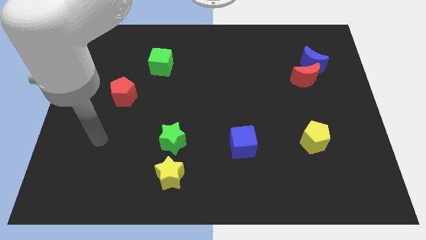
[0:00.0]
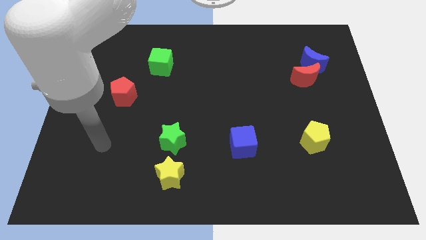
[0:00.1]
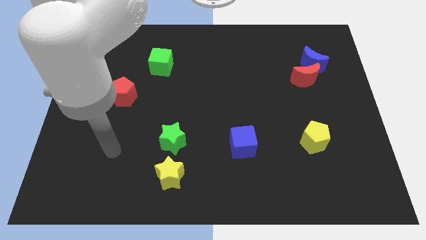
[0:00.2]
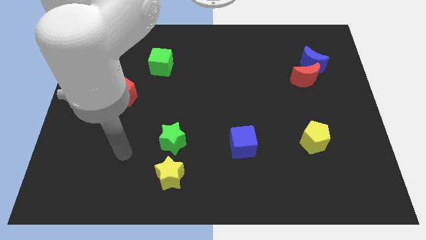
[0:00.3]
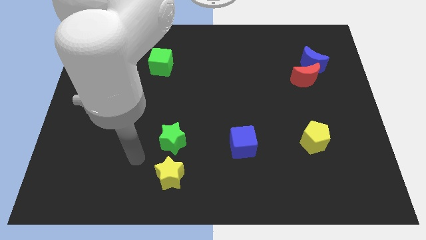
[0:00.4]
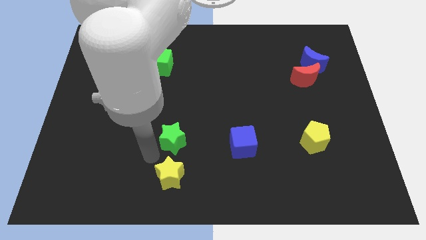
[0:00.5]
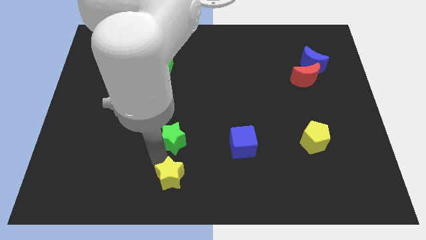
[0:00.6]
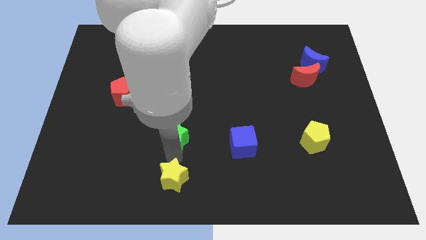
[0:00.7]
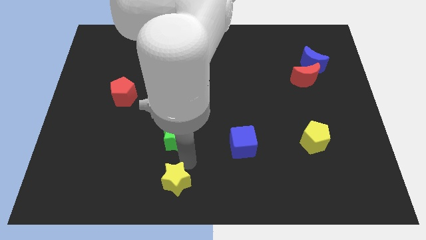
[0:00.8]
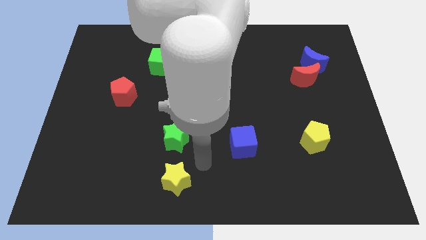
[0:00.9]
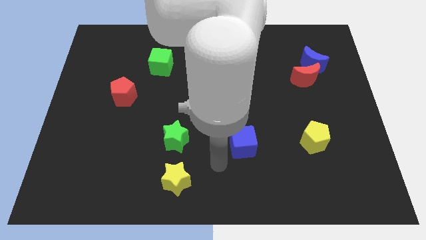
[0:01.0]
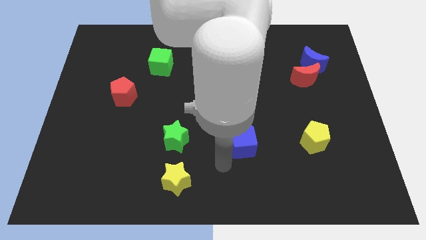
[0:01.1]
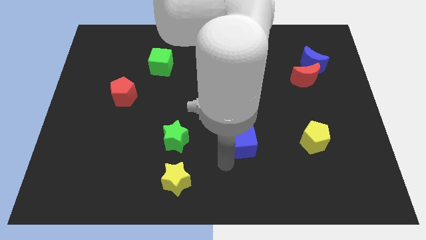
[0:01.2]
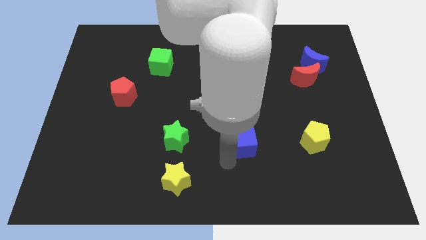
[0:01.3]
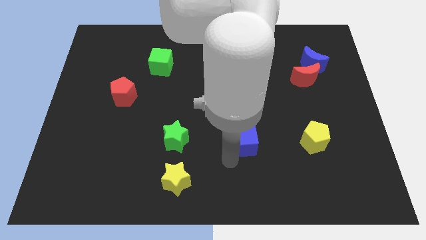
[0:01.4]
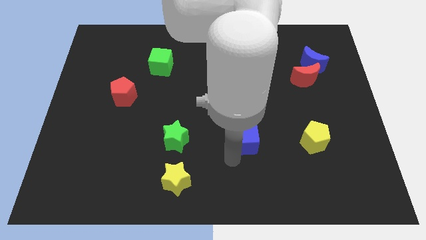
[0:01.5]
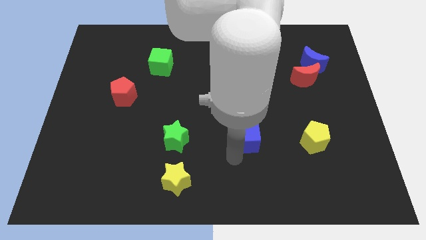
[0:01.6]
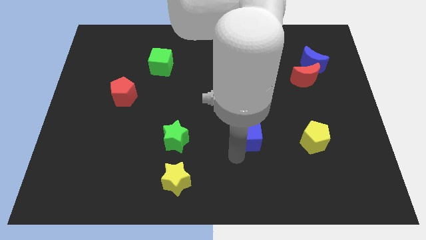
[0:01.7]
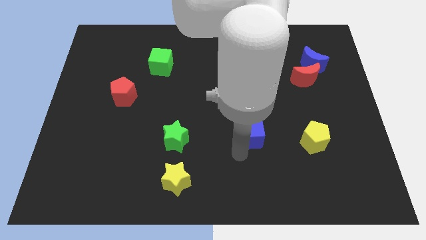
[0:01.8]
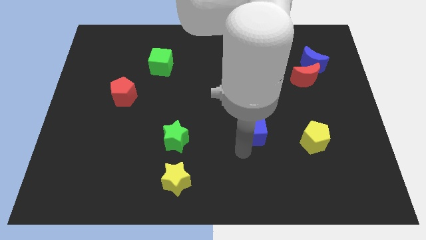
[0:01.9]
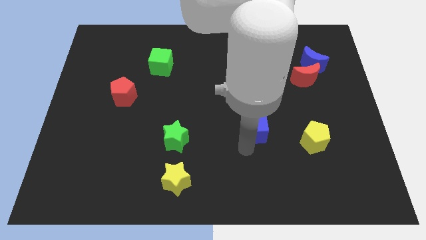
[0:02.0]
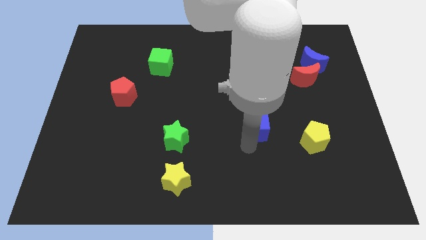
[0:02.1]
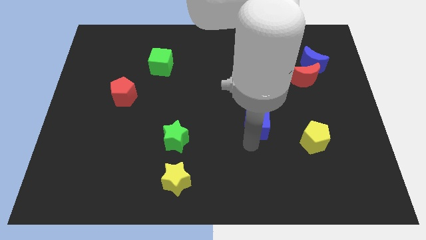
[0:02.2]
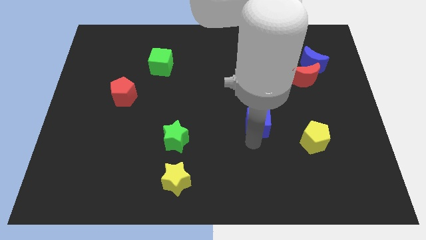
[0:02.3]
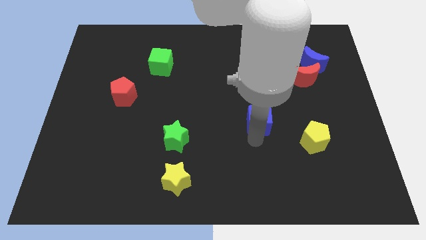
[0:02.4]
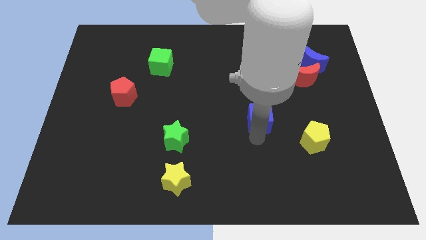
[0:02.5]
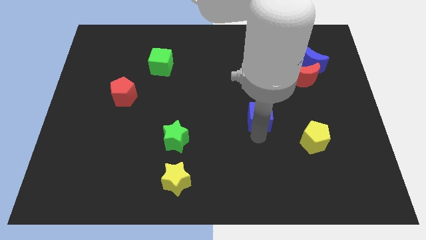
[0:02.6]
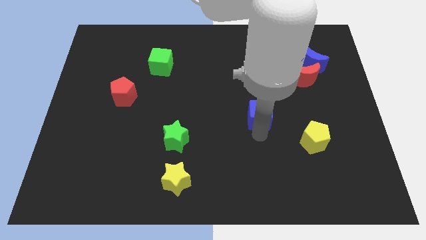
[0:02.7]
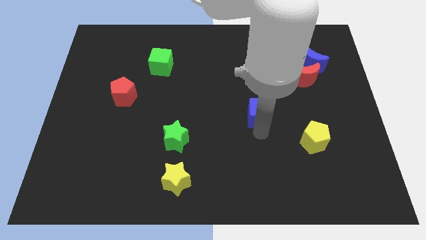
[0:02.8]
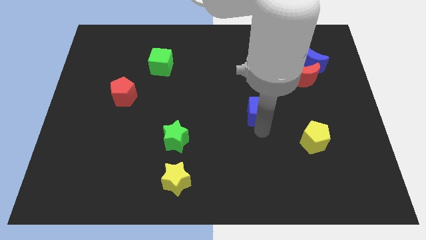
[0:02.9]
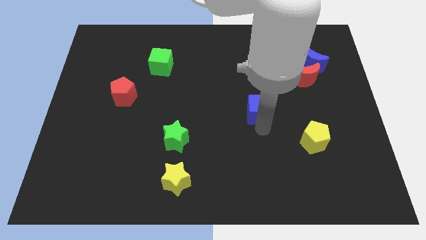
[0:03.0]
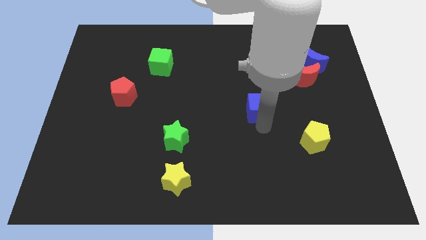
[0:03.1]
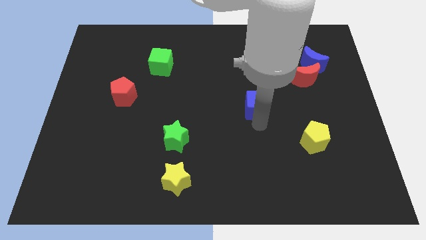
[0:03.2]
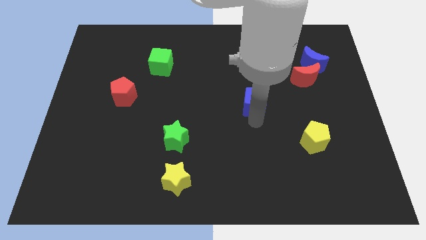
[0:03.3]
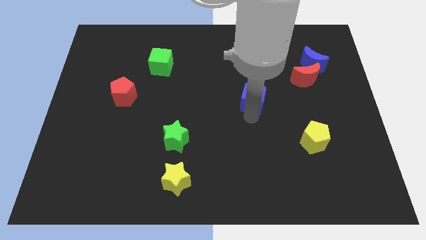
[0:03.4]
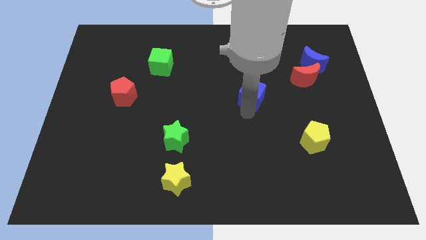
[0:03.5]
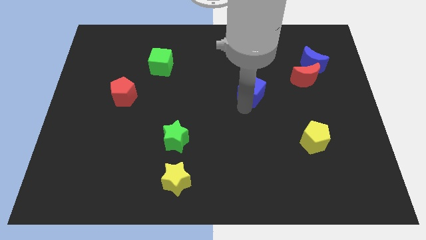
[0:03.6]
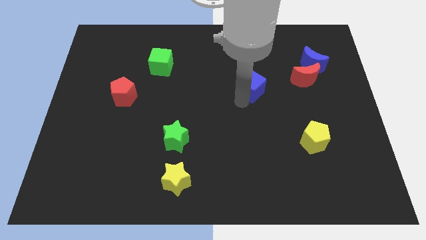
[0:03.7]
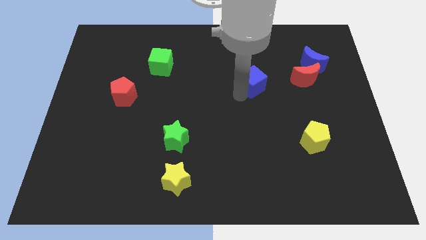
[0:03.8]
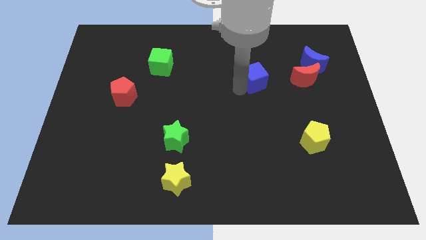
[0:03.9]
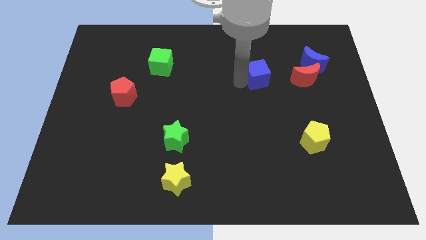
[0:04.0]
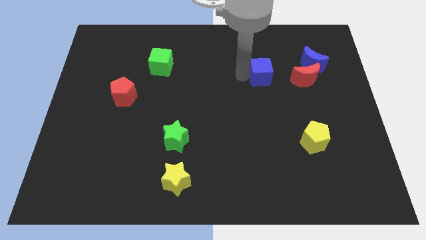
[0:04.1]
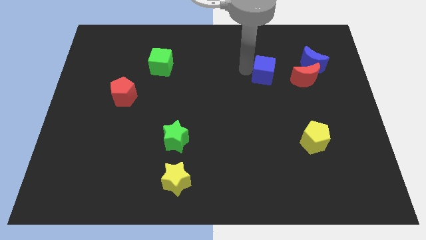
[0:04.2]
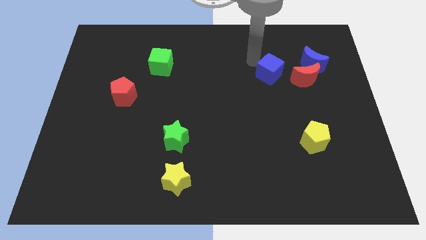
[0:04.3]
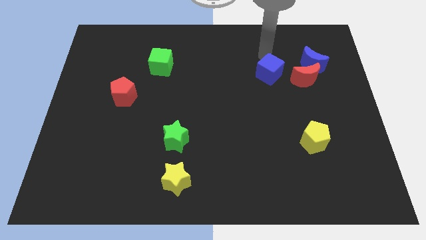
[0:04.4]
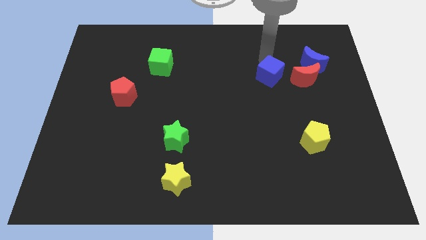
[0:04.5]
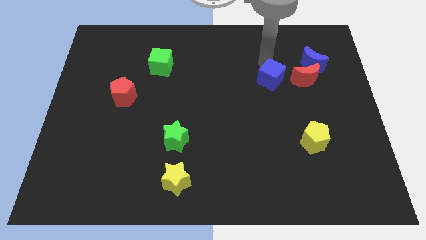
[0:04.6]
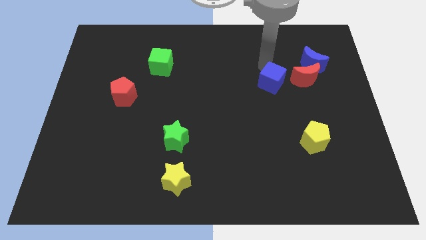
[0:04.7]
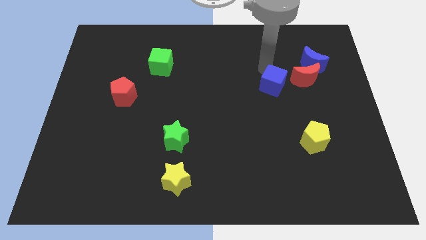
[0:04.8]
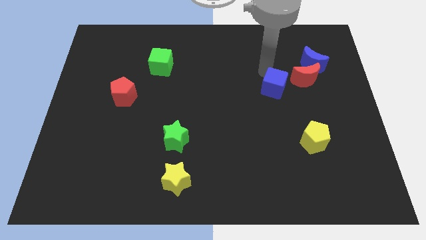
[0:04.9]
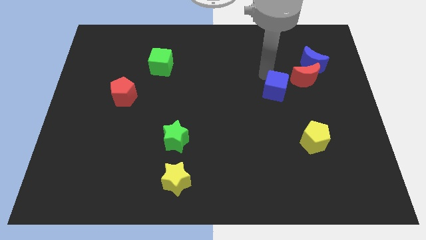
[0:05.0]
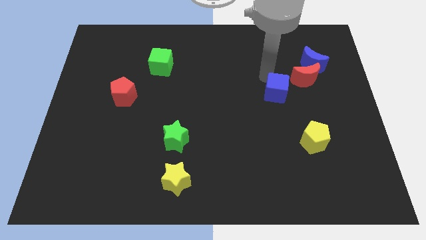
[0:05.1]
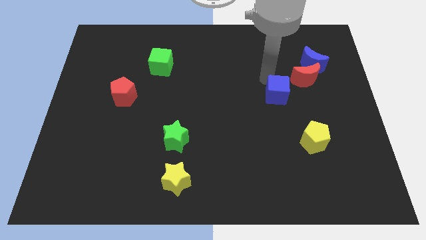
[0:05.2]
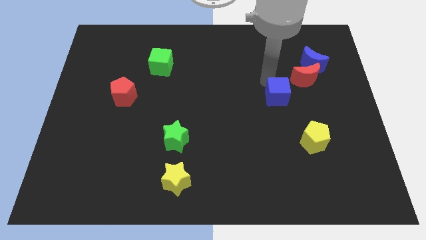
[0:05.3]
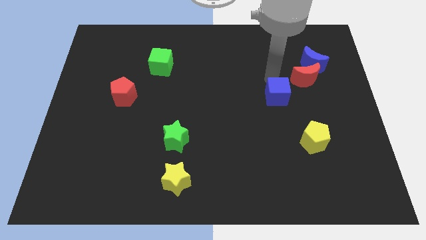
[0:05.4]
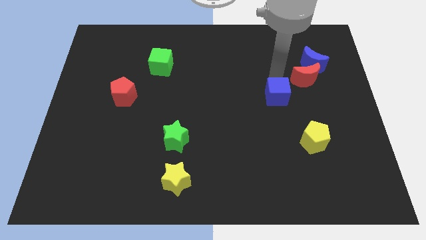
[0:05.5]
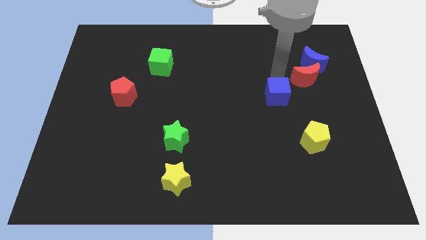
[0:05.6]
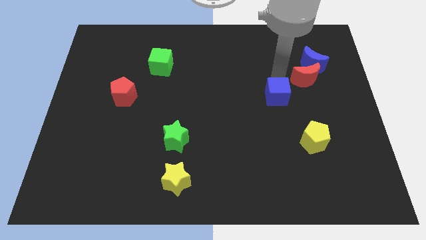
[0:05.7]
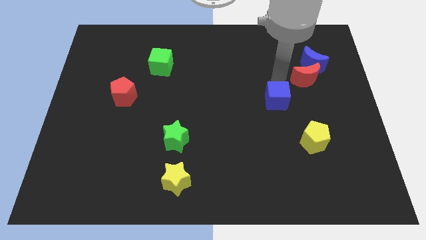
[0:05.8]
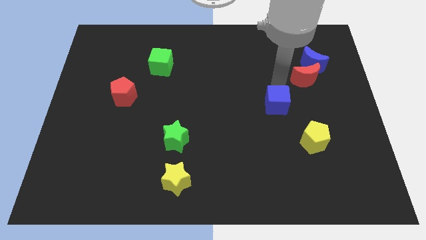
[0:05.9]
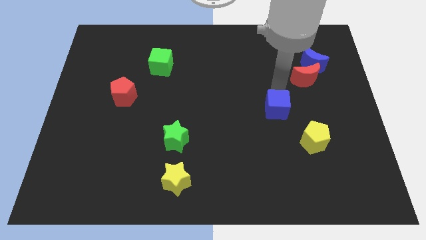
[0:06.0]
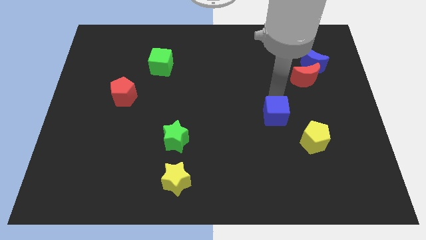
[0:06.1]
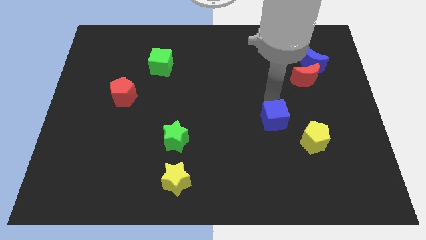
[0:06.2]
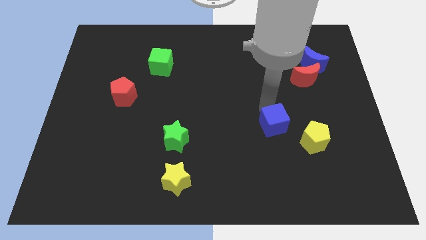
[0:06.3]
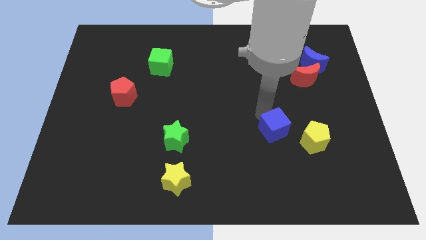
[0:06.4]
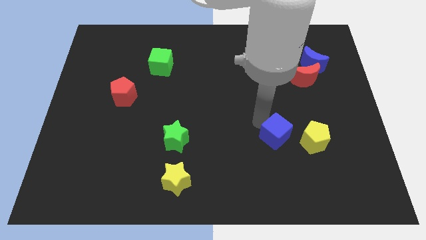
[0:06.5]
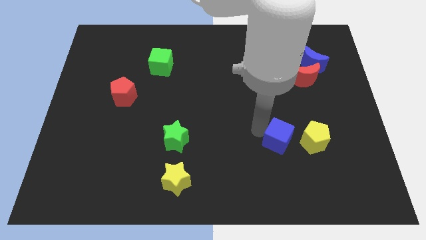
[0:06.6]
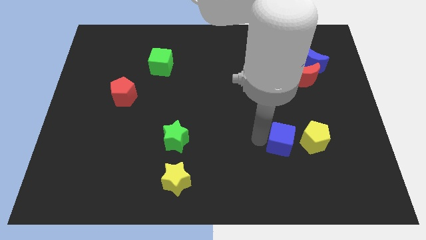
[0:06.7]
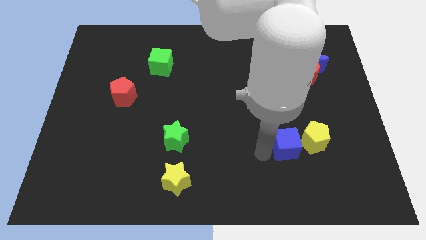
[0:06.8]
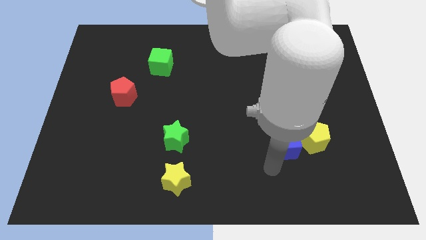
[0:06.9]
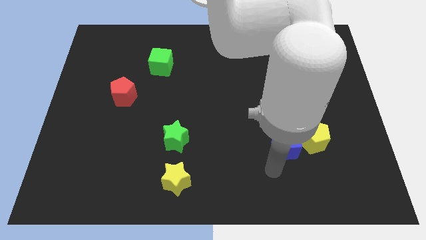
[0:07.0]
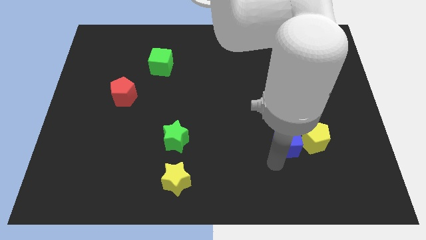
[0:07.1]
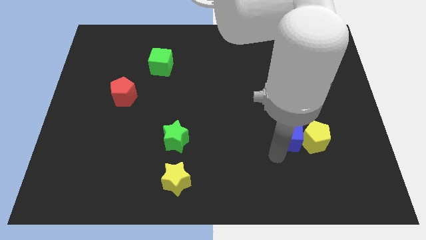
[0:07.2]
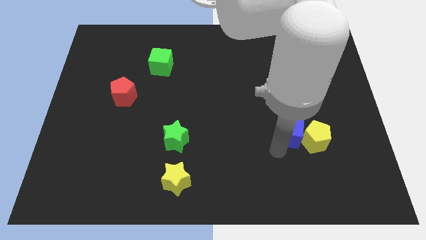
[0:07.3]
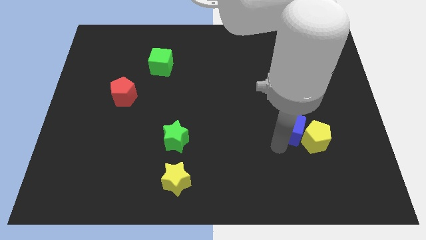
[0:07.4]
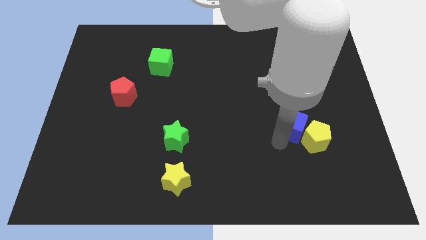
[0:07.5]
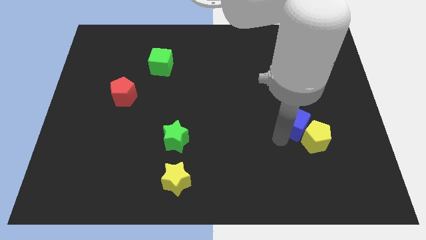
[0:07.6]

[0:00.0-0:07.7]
push the blue cube to the top of the yellow pentagon
